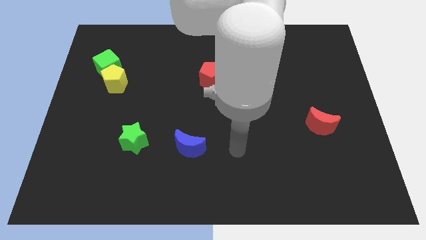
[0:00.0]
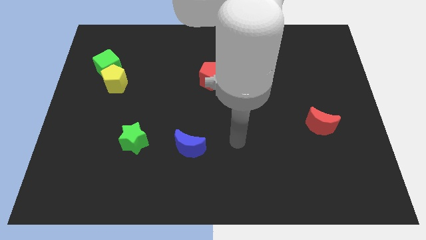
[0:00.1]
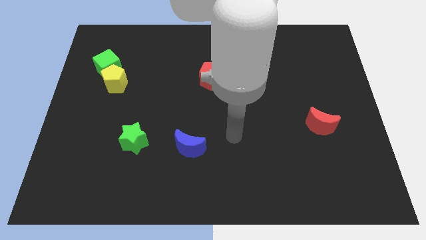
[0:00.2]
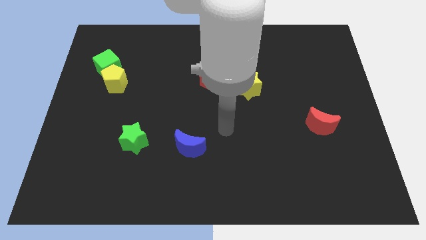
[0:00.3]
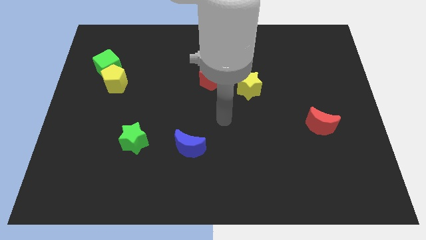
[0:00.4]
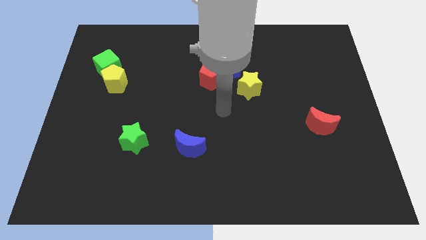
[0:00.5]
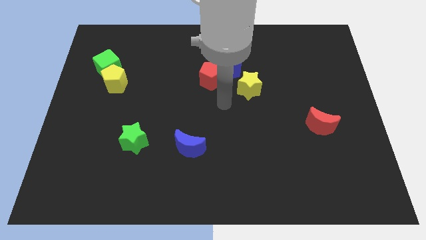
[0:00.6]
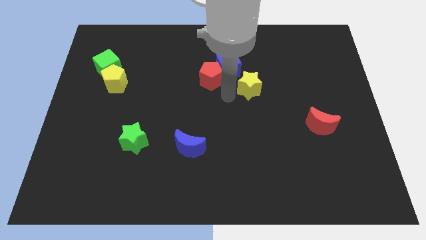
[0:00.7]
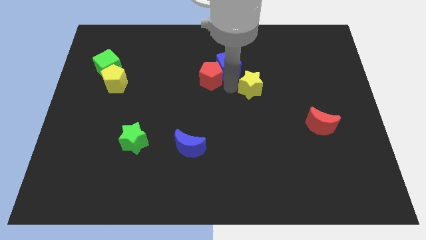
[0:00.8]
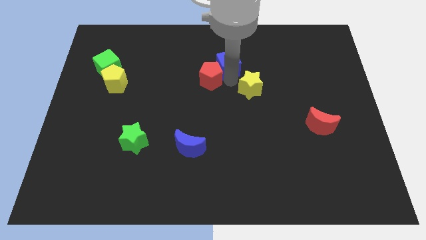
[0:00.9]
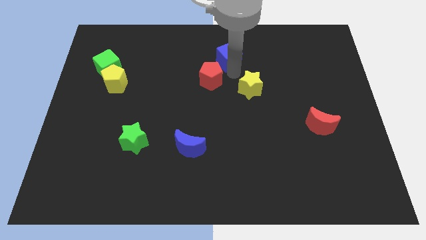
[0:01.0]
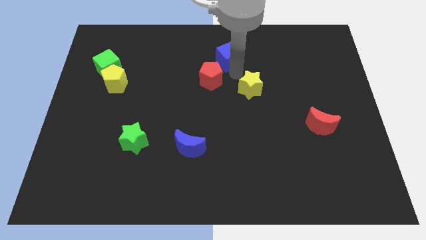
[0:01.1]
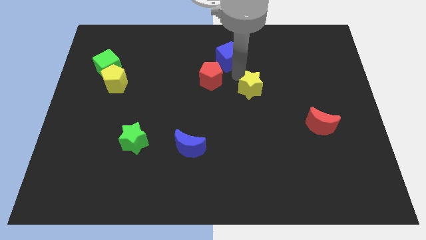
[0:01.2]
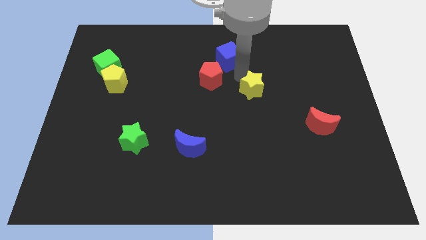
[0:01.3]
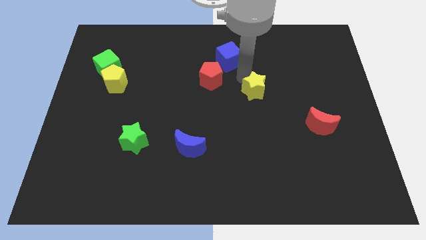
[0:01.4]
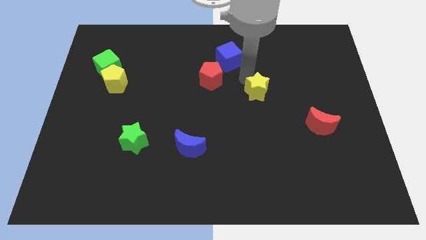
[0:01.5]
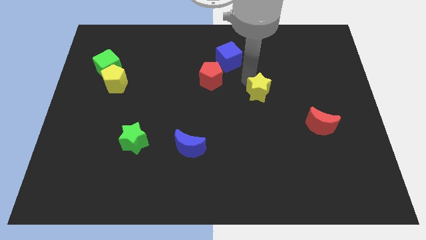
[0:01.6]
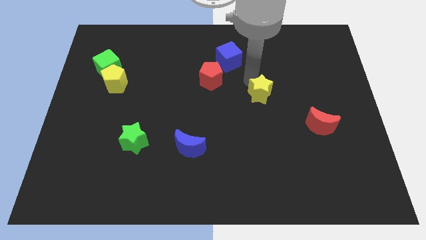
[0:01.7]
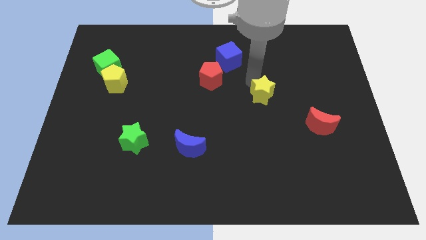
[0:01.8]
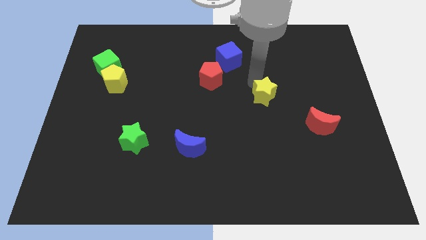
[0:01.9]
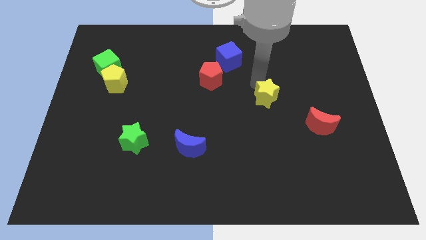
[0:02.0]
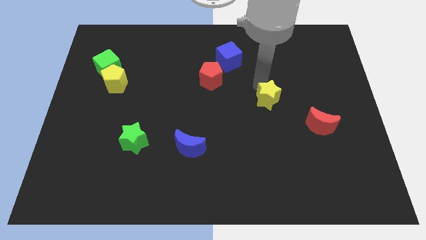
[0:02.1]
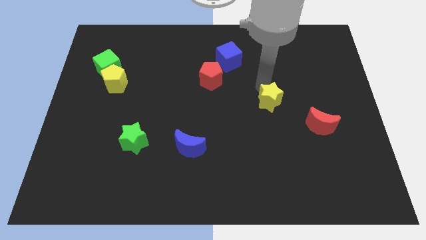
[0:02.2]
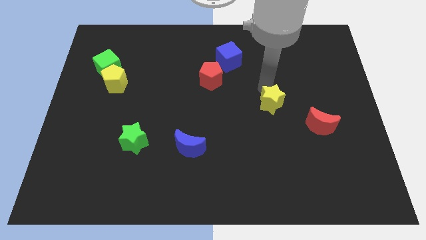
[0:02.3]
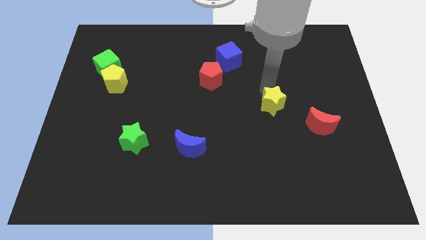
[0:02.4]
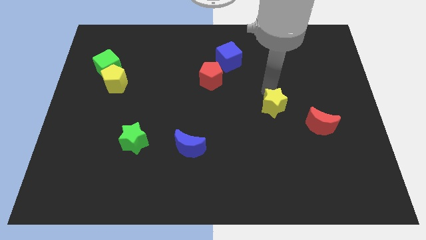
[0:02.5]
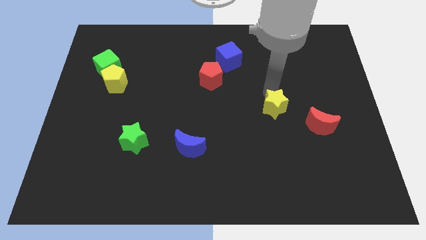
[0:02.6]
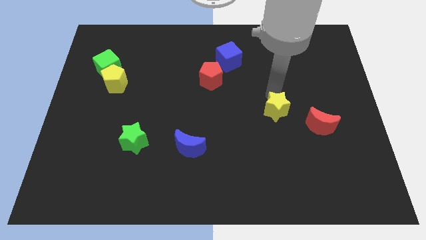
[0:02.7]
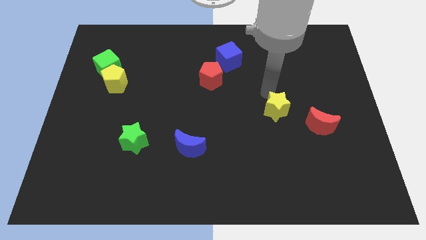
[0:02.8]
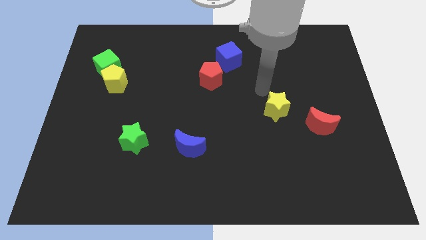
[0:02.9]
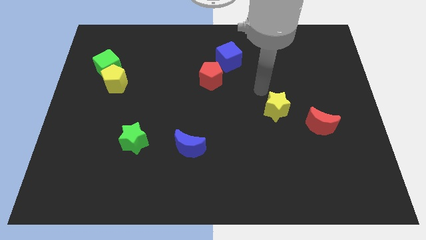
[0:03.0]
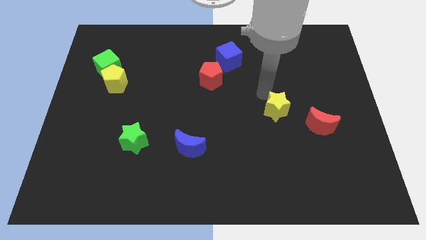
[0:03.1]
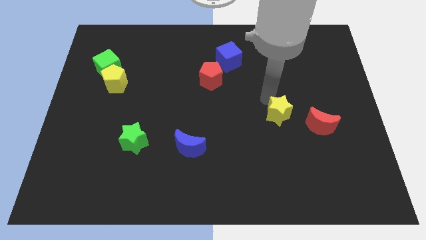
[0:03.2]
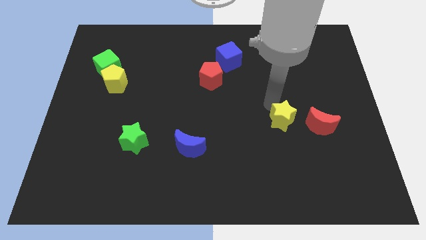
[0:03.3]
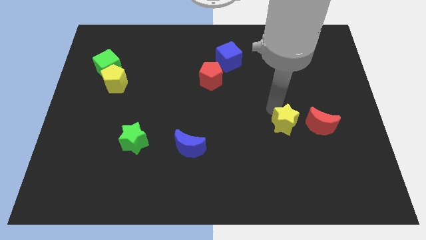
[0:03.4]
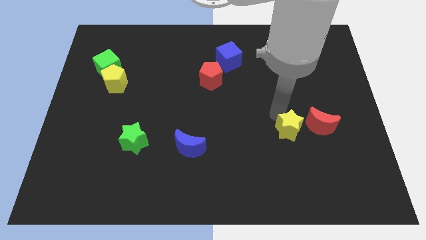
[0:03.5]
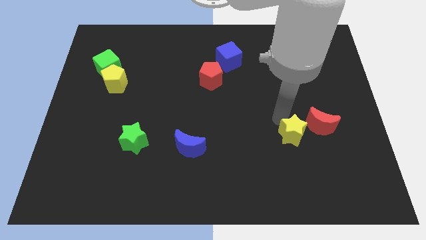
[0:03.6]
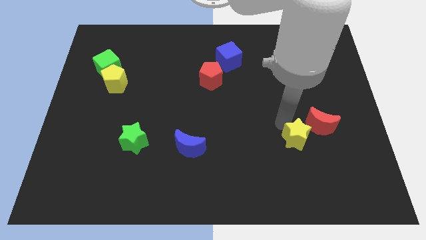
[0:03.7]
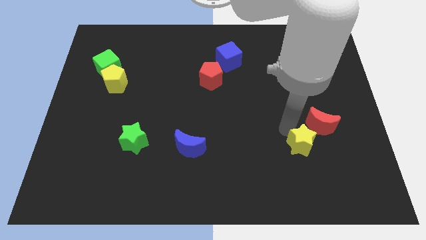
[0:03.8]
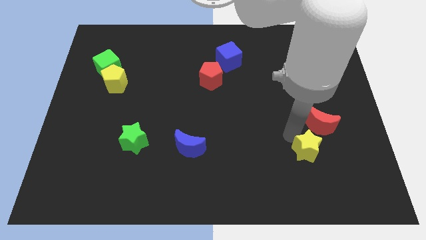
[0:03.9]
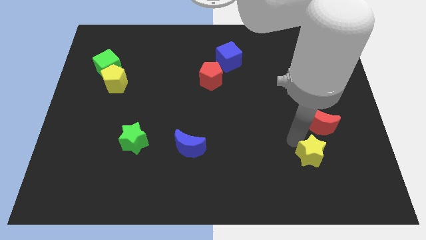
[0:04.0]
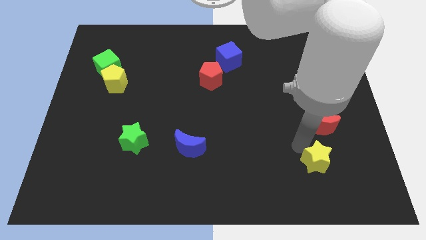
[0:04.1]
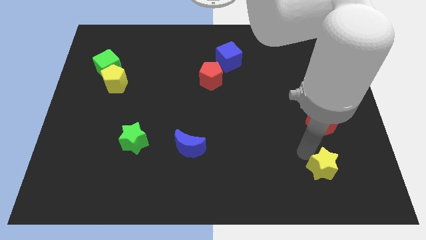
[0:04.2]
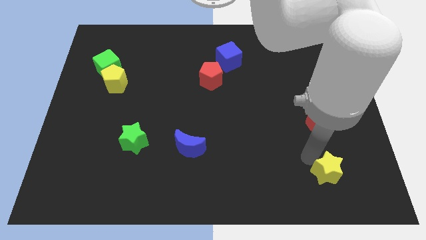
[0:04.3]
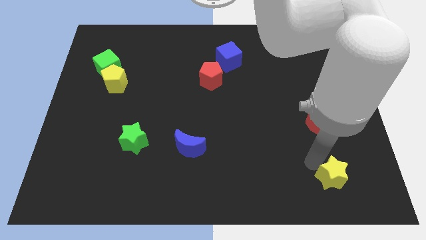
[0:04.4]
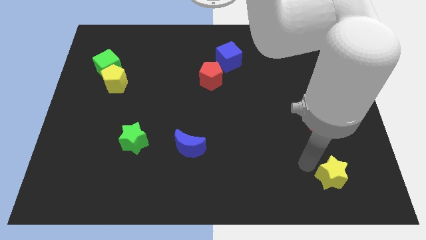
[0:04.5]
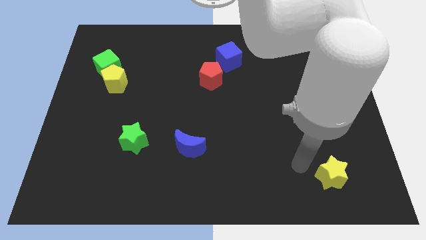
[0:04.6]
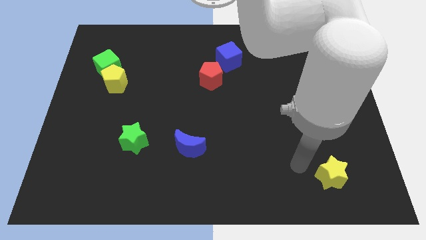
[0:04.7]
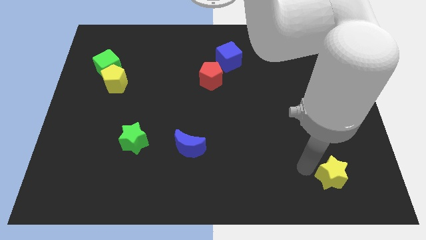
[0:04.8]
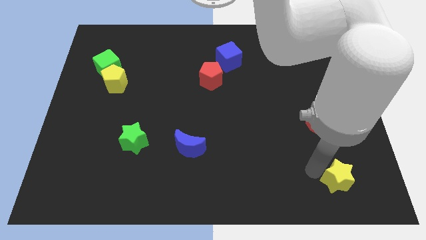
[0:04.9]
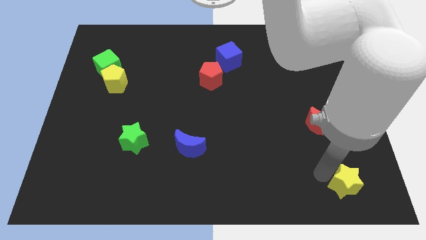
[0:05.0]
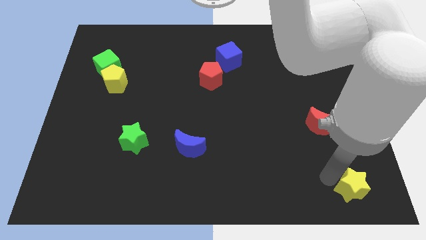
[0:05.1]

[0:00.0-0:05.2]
move the yellow star to the bottom right

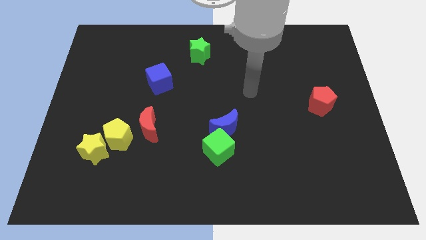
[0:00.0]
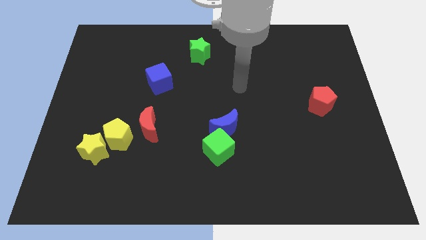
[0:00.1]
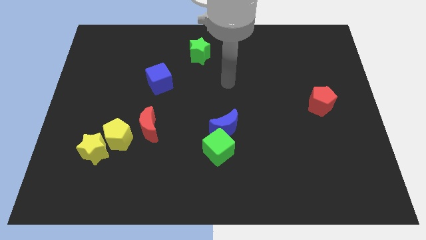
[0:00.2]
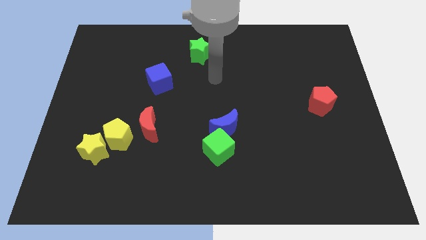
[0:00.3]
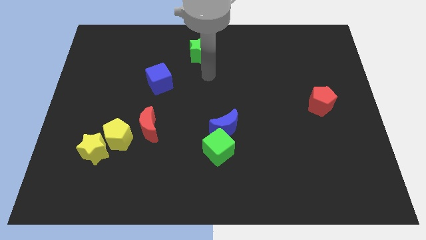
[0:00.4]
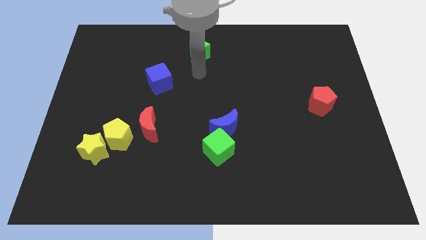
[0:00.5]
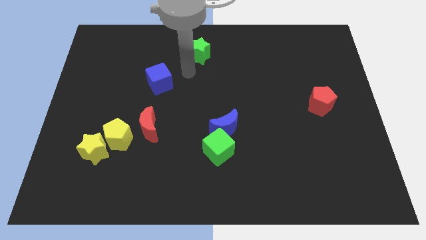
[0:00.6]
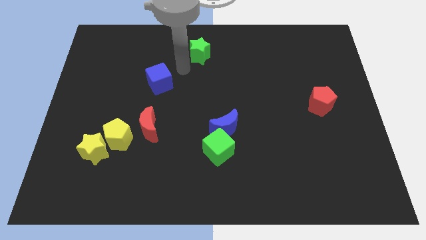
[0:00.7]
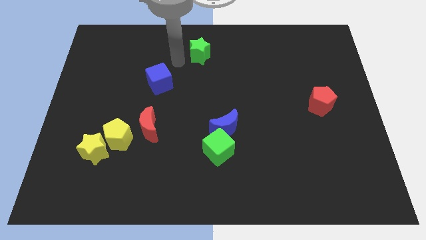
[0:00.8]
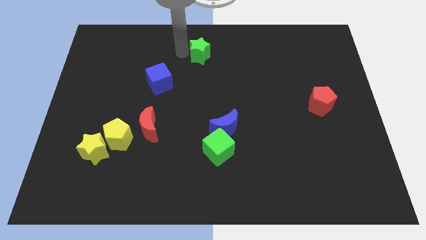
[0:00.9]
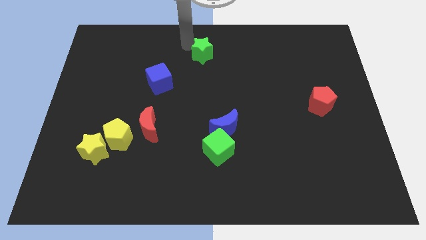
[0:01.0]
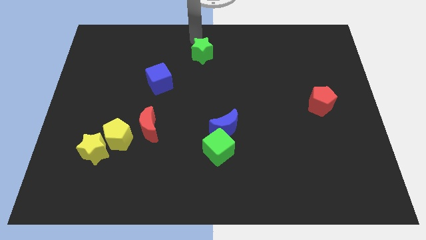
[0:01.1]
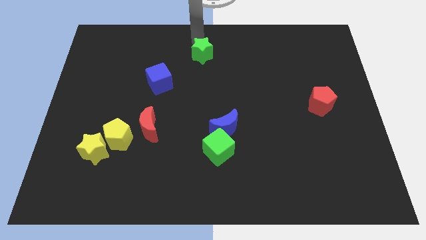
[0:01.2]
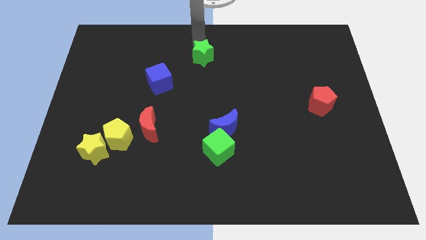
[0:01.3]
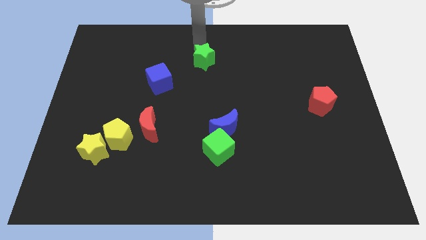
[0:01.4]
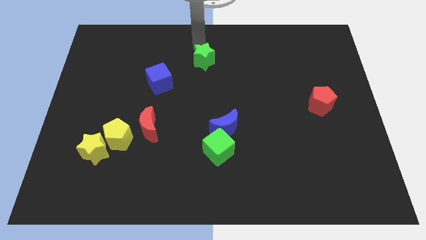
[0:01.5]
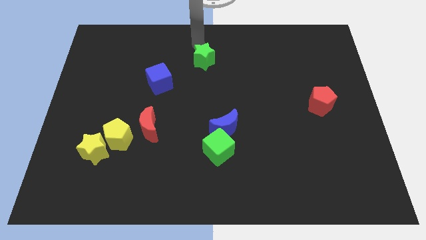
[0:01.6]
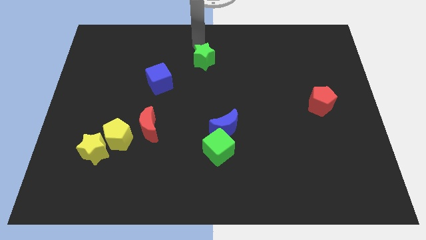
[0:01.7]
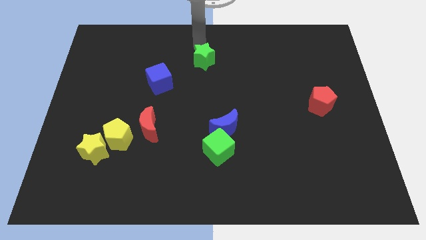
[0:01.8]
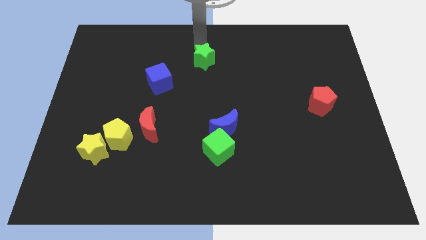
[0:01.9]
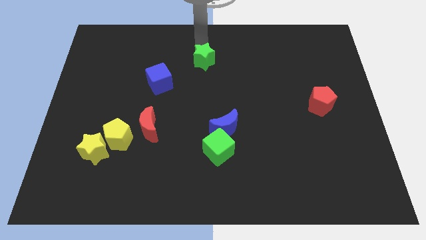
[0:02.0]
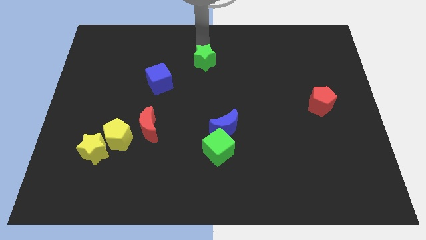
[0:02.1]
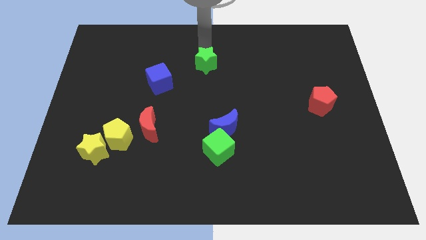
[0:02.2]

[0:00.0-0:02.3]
push the green star to the center of the board
